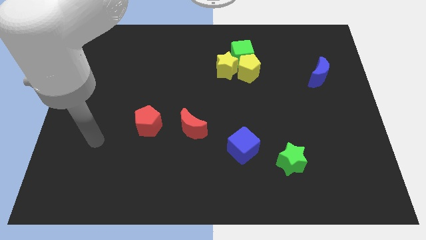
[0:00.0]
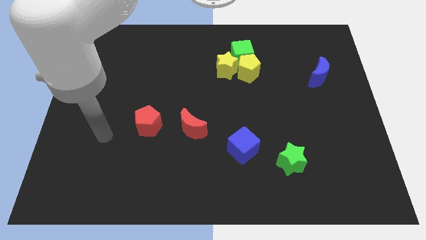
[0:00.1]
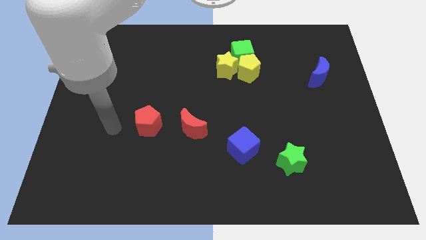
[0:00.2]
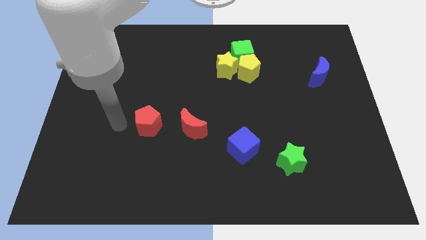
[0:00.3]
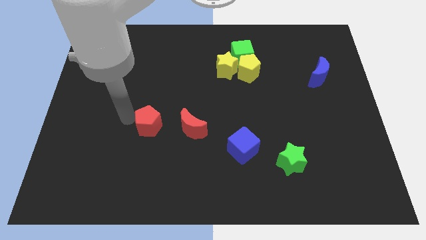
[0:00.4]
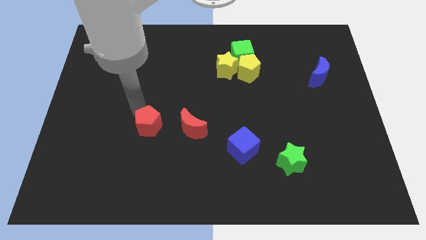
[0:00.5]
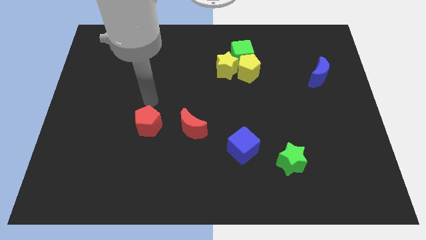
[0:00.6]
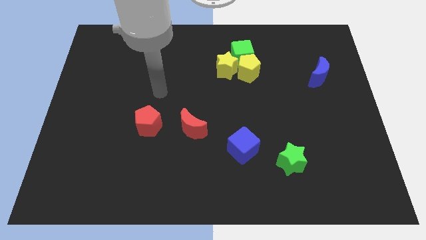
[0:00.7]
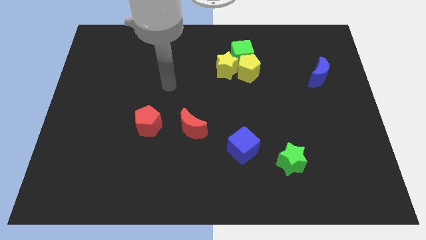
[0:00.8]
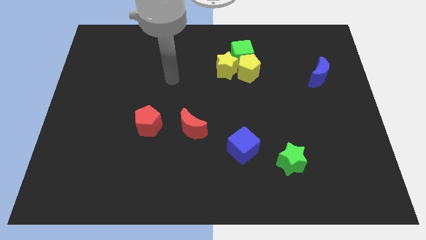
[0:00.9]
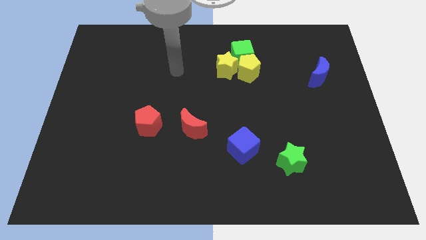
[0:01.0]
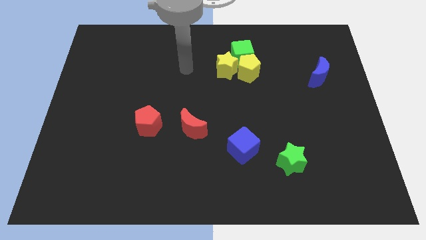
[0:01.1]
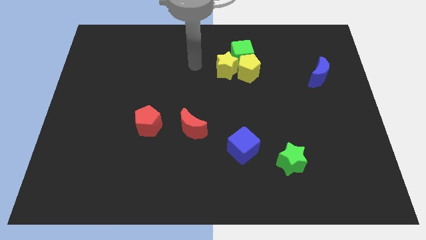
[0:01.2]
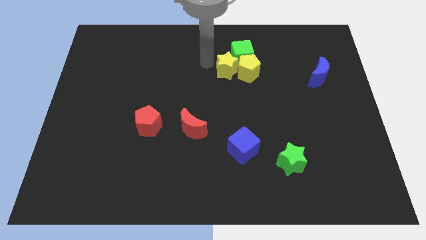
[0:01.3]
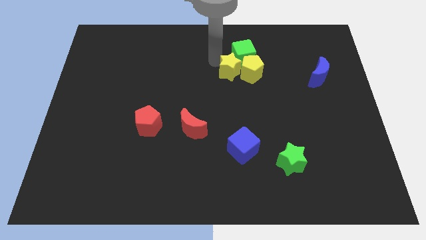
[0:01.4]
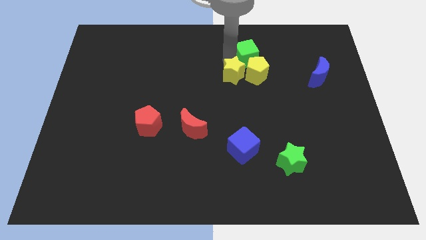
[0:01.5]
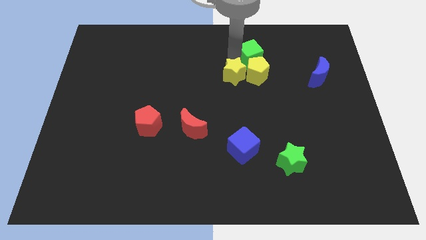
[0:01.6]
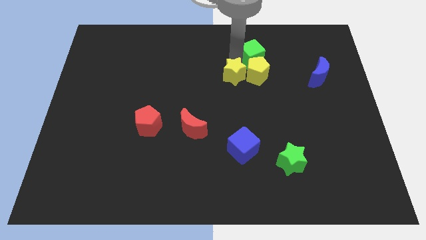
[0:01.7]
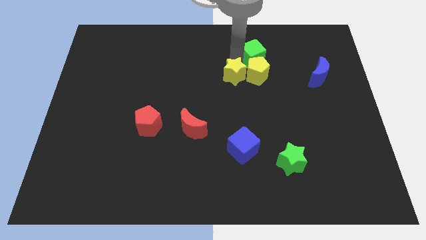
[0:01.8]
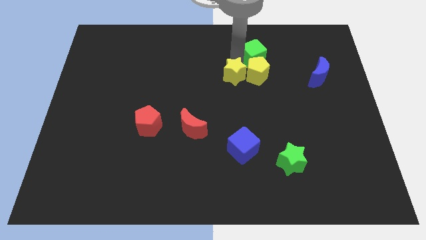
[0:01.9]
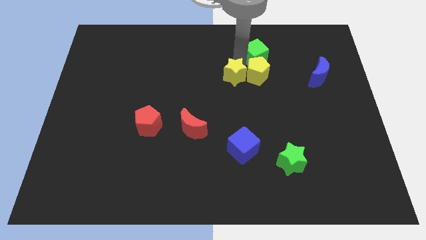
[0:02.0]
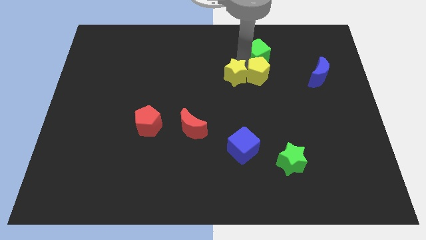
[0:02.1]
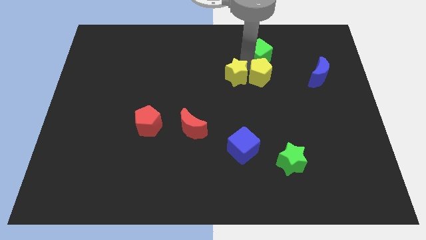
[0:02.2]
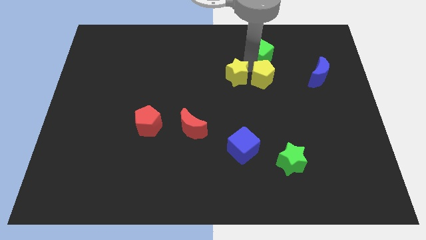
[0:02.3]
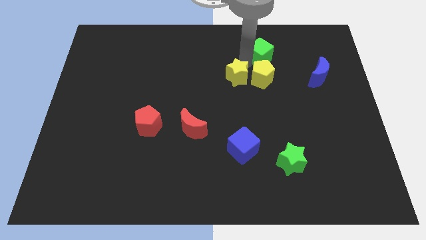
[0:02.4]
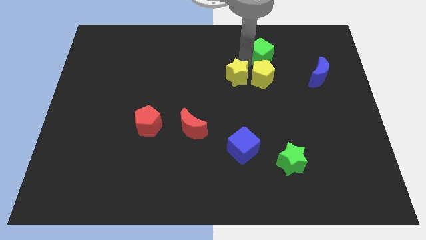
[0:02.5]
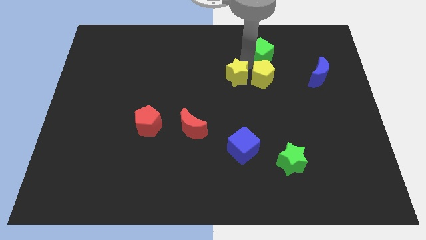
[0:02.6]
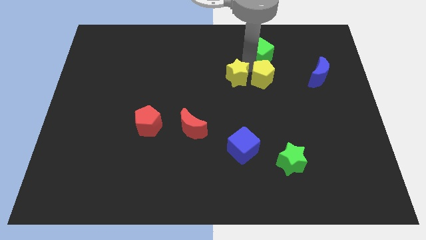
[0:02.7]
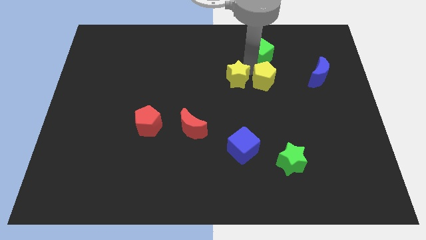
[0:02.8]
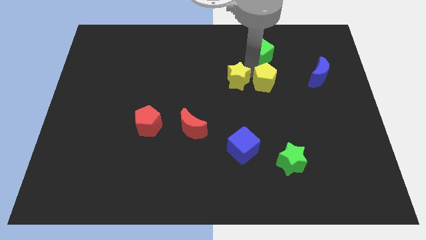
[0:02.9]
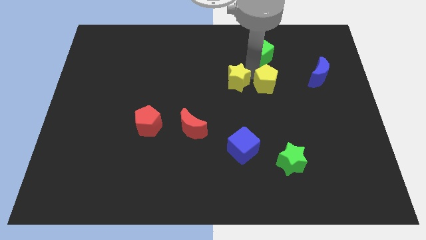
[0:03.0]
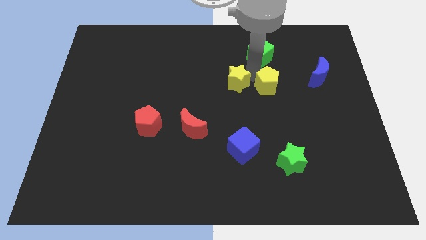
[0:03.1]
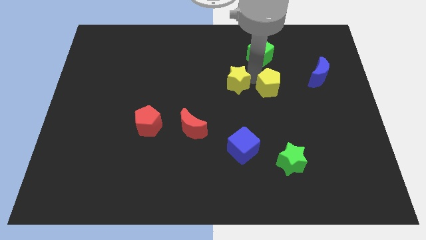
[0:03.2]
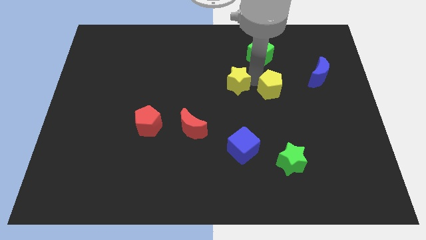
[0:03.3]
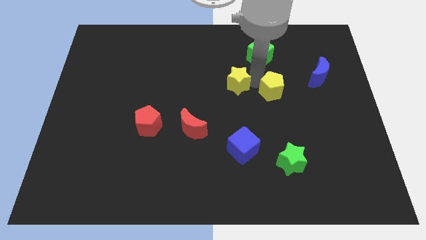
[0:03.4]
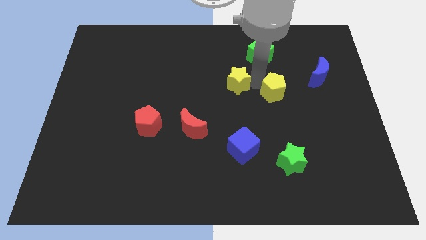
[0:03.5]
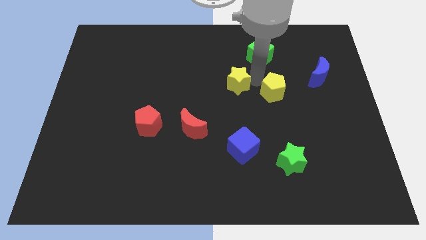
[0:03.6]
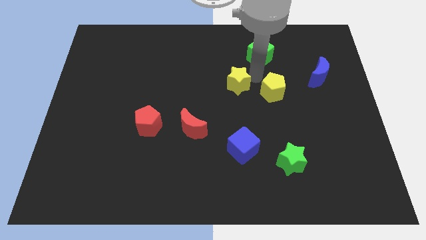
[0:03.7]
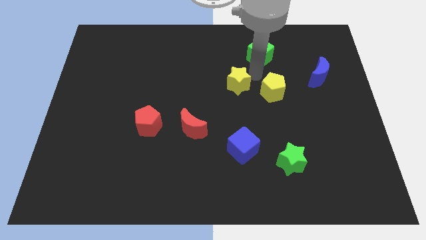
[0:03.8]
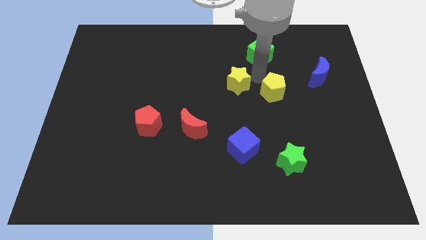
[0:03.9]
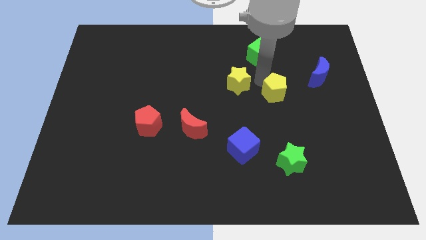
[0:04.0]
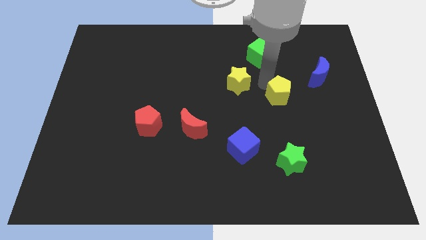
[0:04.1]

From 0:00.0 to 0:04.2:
separate the yellow pentagon from the green cube and yellow star

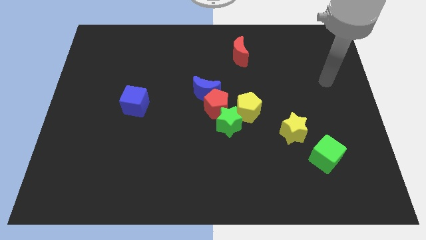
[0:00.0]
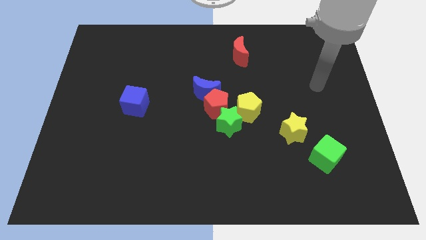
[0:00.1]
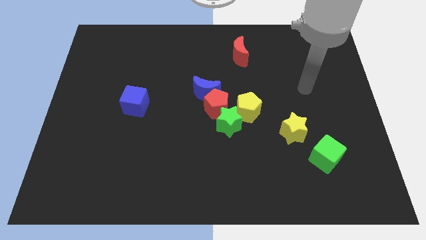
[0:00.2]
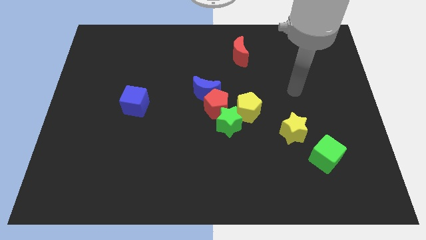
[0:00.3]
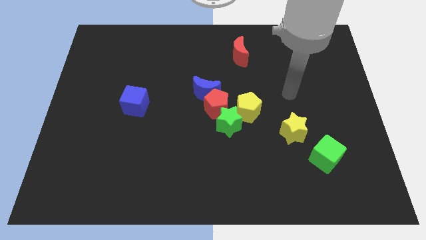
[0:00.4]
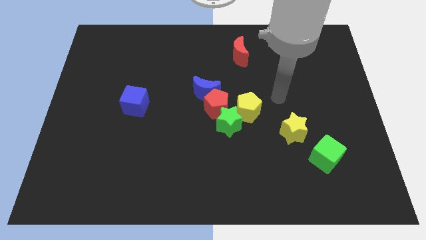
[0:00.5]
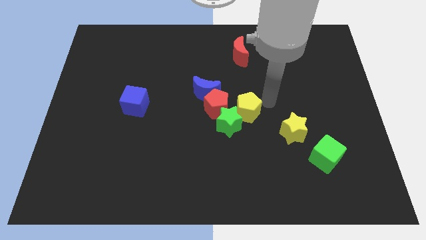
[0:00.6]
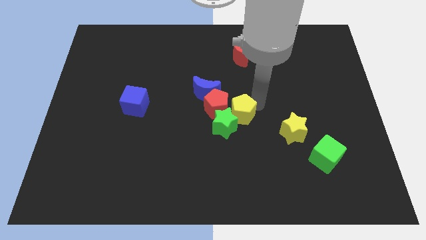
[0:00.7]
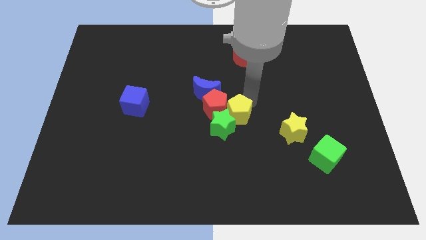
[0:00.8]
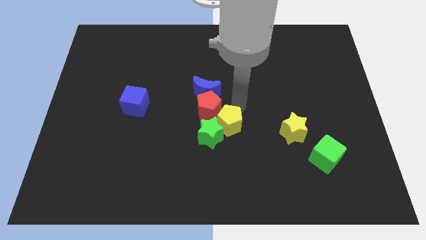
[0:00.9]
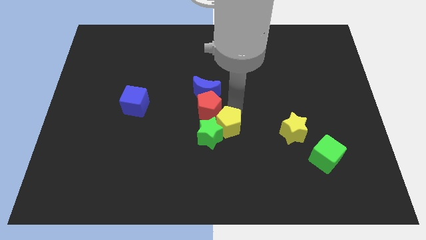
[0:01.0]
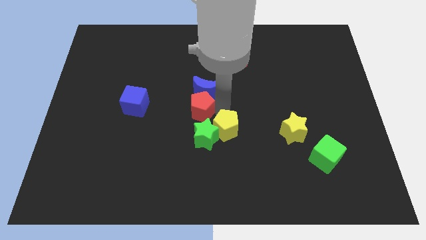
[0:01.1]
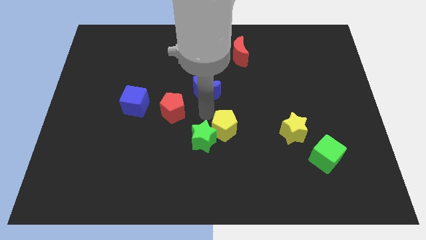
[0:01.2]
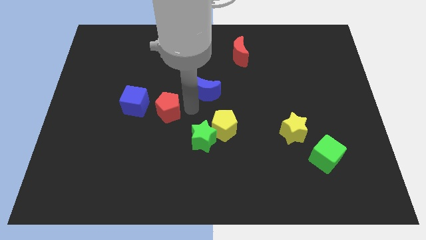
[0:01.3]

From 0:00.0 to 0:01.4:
pull the blue moon apart from the red pentagon

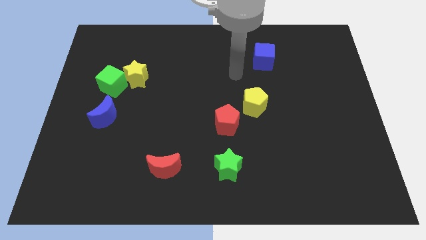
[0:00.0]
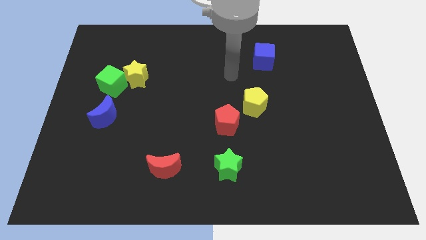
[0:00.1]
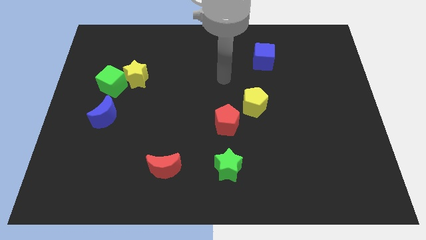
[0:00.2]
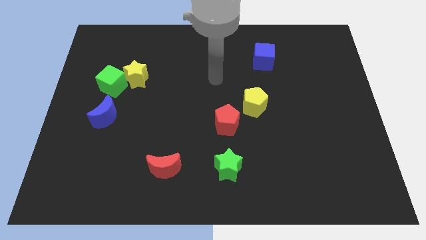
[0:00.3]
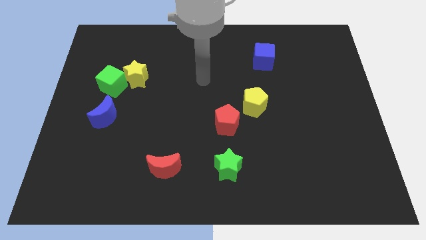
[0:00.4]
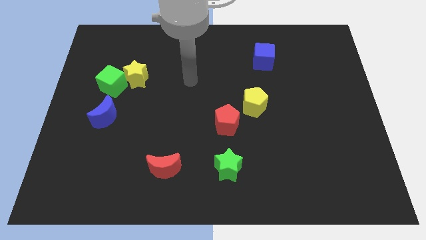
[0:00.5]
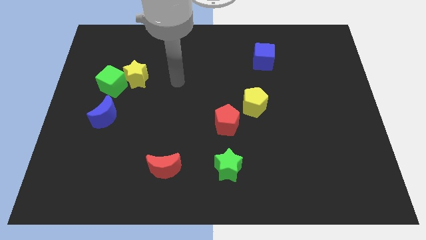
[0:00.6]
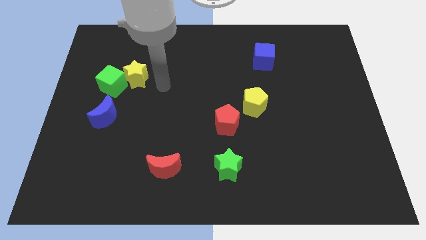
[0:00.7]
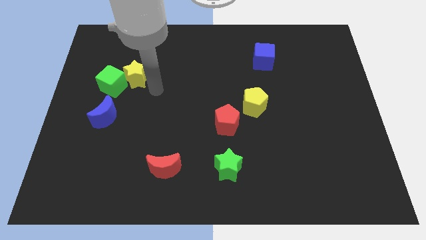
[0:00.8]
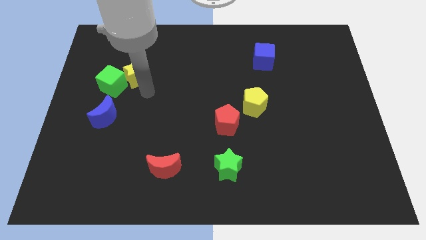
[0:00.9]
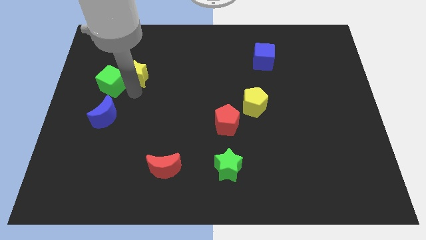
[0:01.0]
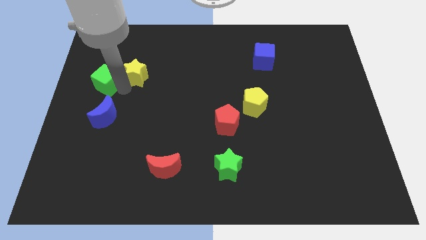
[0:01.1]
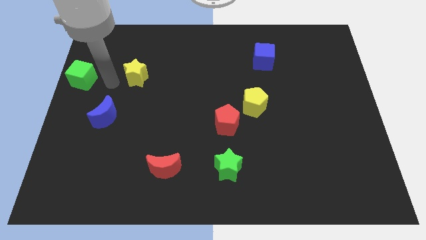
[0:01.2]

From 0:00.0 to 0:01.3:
pull the yellow star apart from the green cube

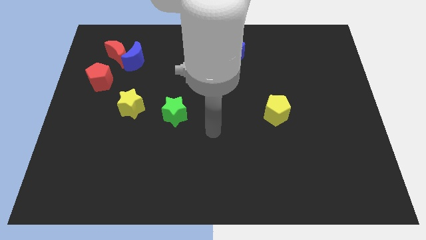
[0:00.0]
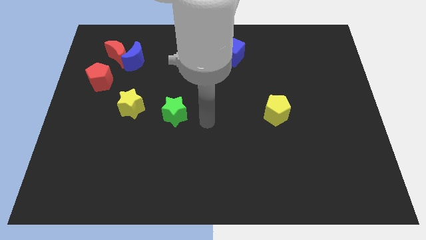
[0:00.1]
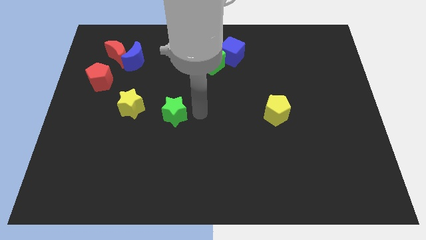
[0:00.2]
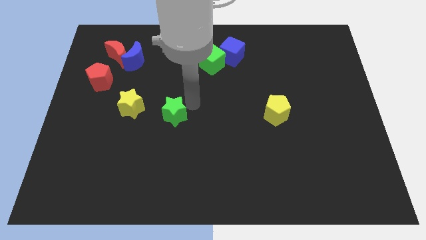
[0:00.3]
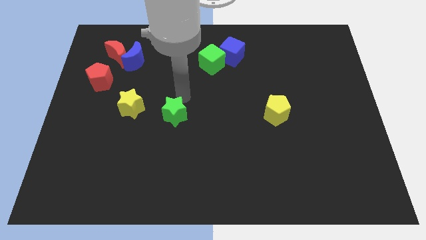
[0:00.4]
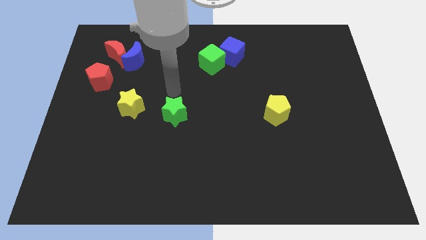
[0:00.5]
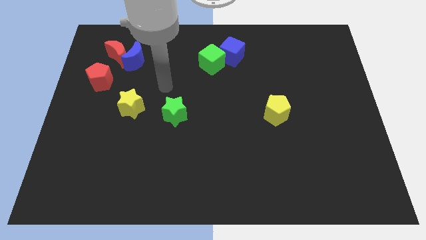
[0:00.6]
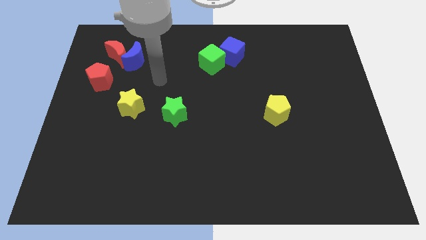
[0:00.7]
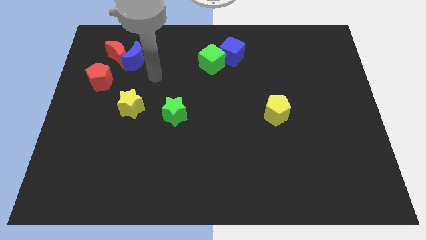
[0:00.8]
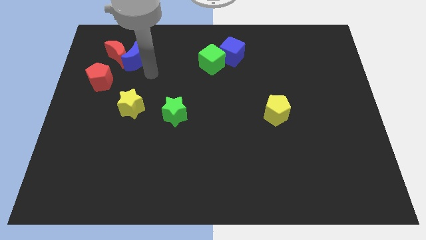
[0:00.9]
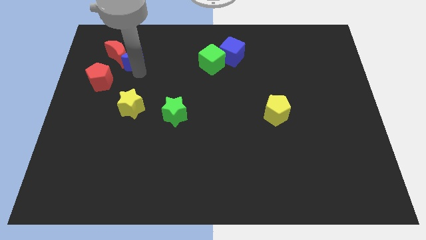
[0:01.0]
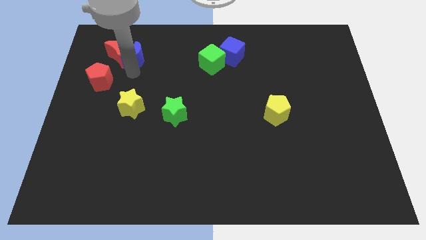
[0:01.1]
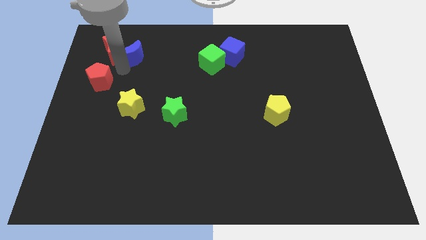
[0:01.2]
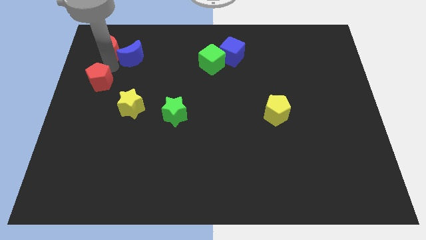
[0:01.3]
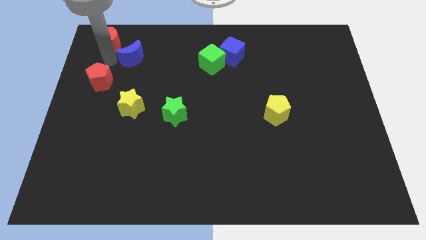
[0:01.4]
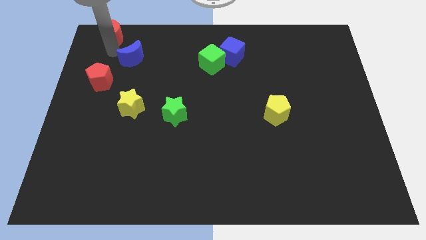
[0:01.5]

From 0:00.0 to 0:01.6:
pull the blue moon apart from the red moon

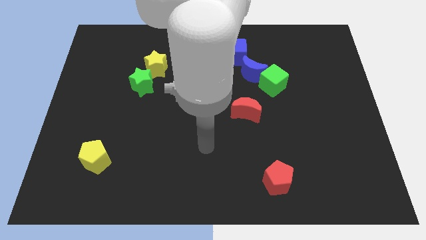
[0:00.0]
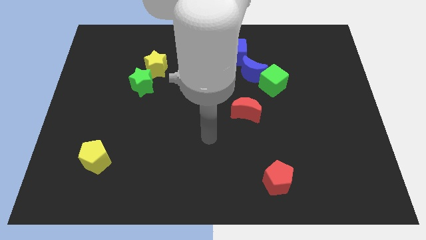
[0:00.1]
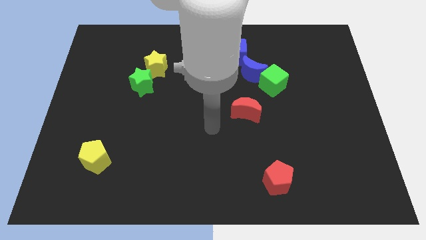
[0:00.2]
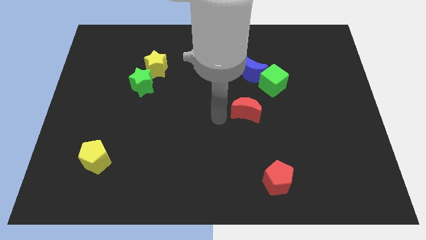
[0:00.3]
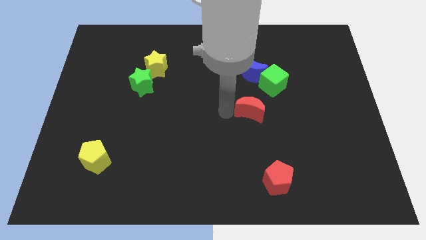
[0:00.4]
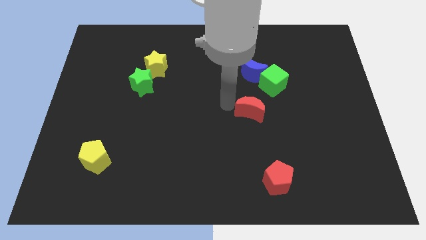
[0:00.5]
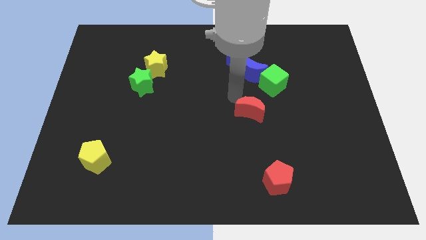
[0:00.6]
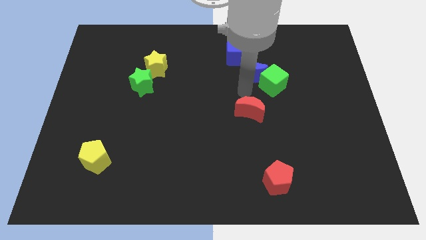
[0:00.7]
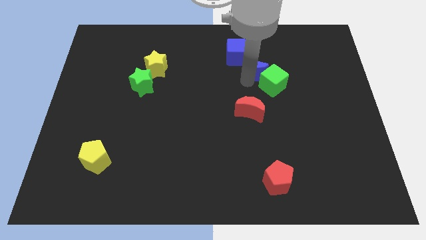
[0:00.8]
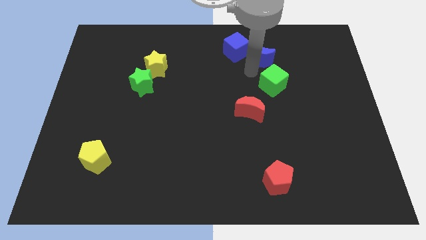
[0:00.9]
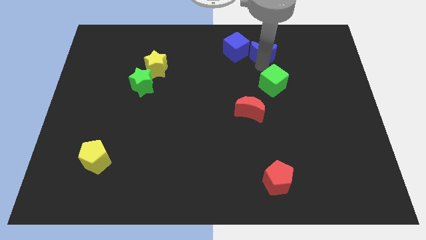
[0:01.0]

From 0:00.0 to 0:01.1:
pull the green cube apart from the blue moon
